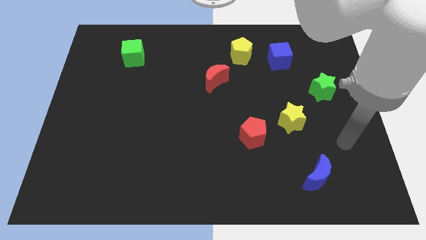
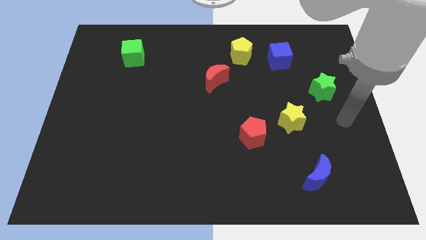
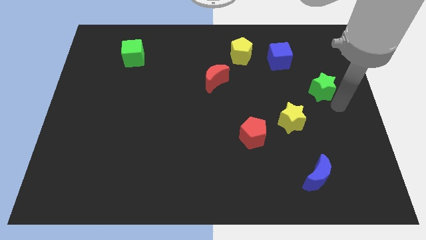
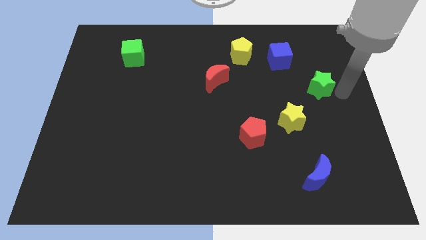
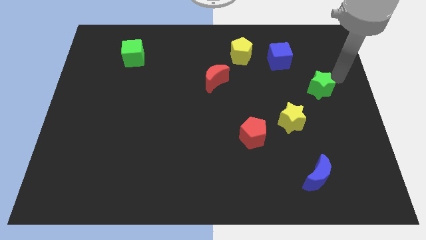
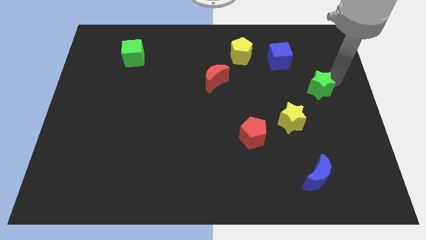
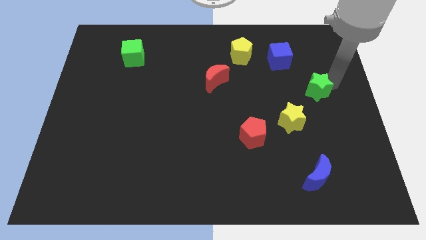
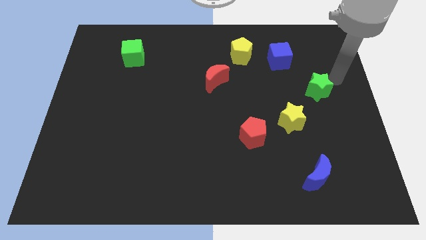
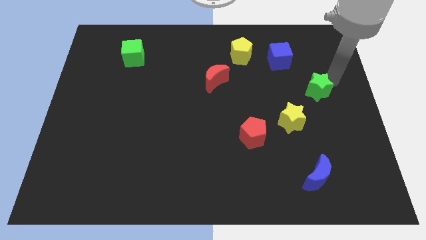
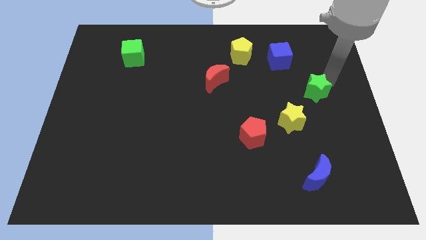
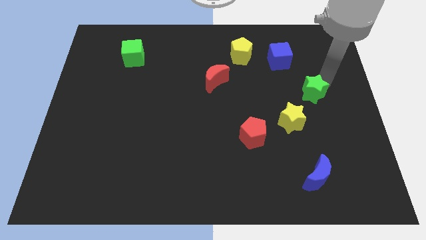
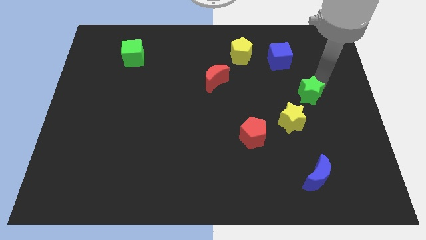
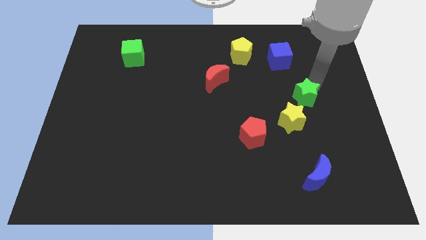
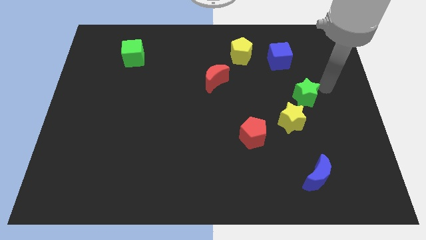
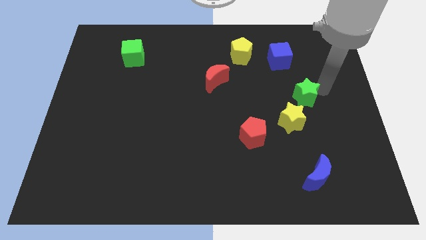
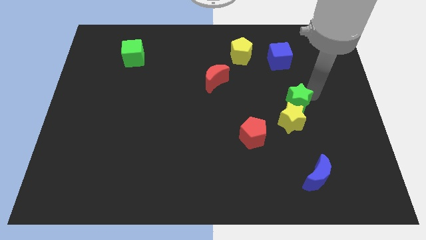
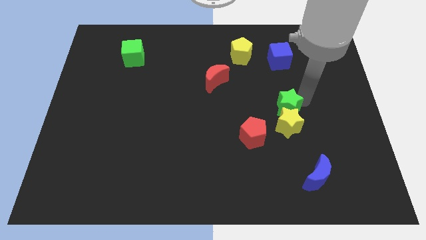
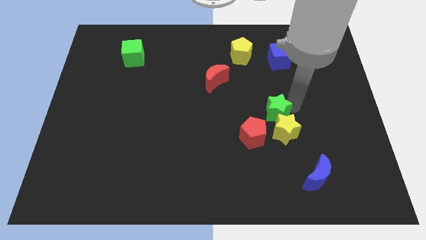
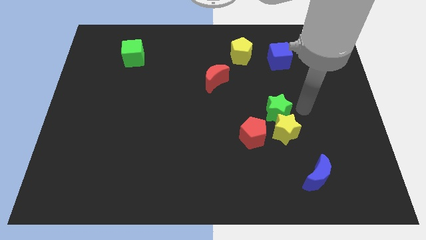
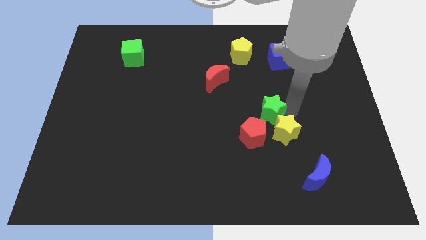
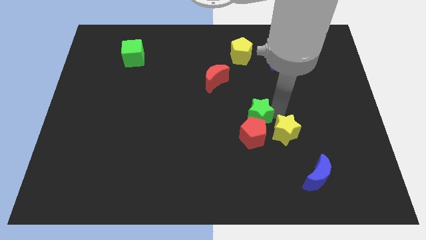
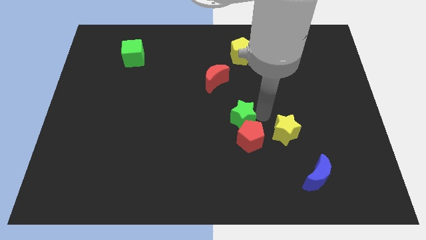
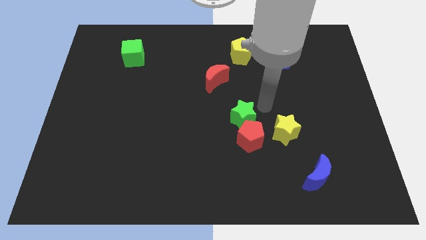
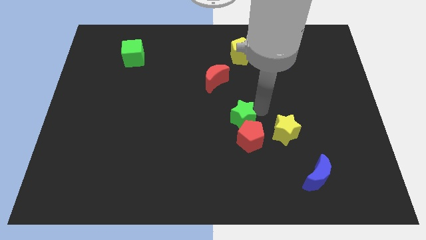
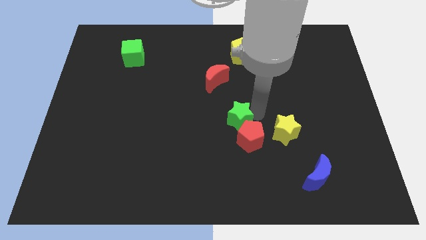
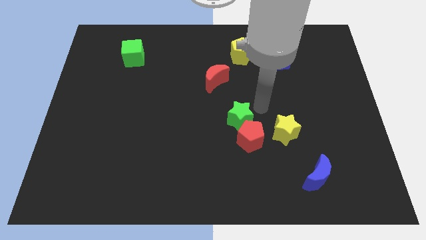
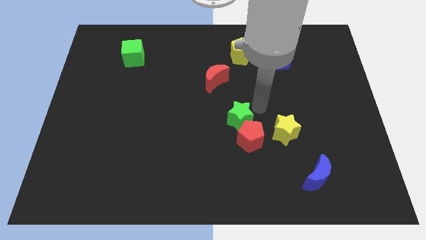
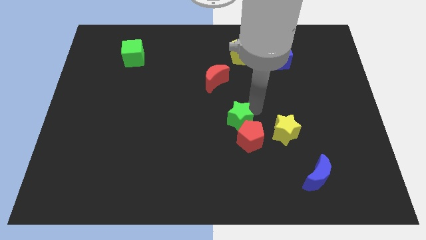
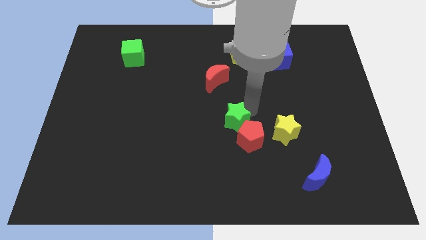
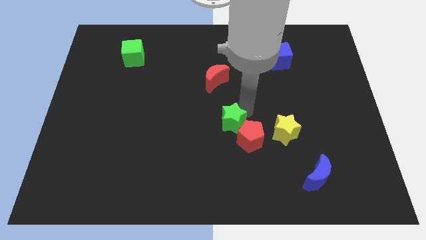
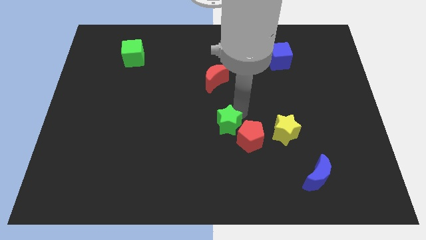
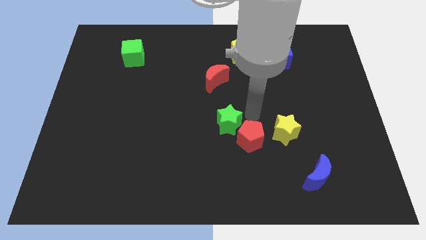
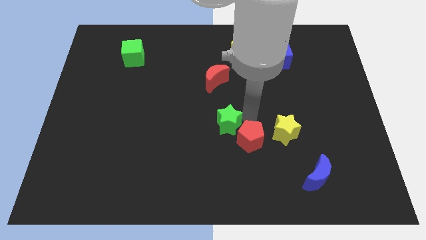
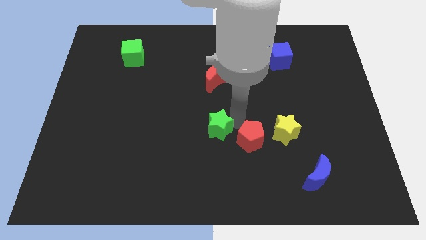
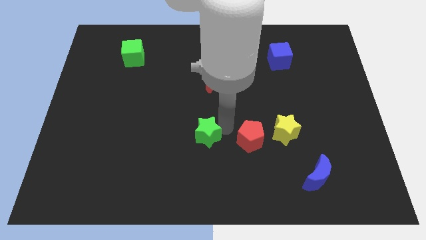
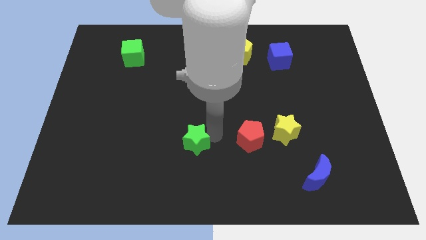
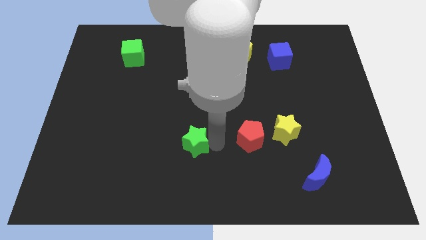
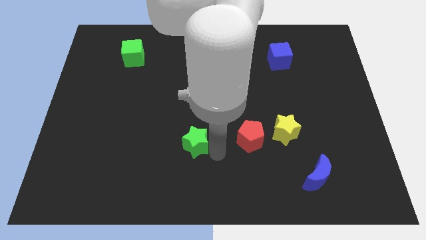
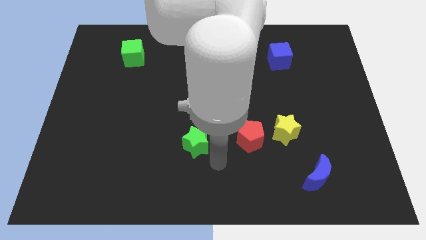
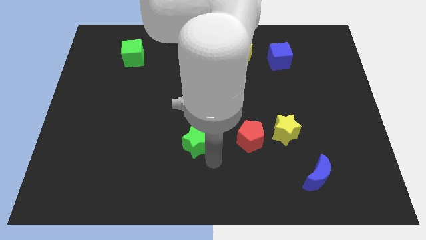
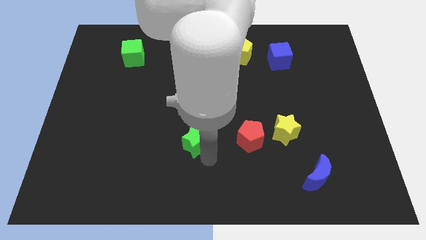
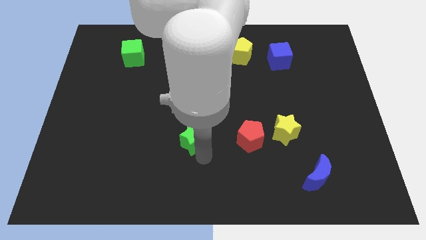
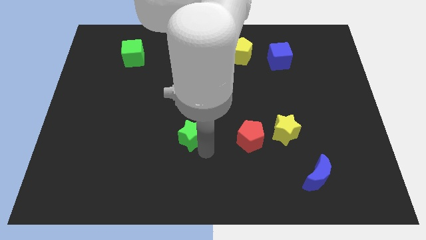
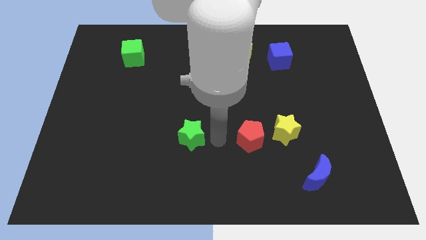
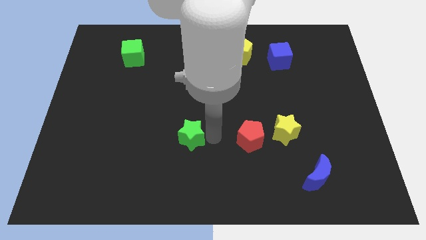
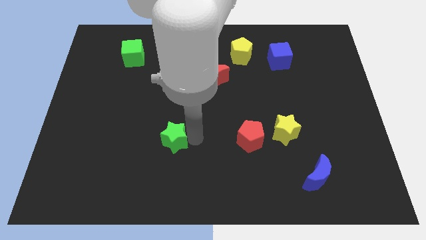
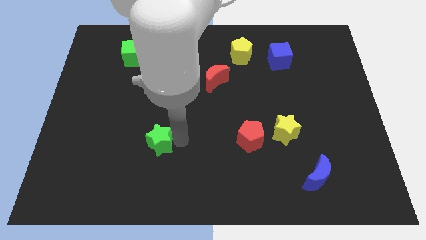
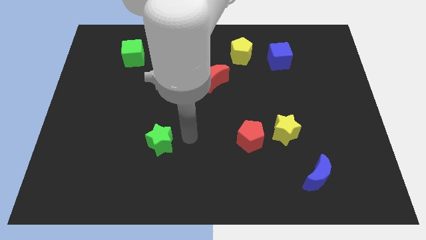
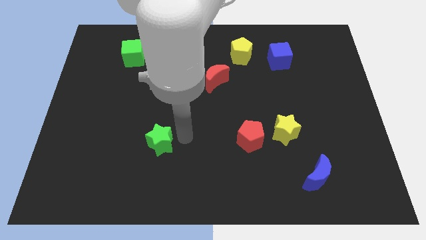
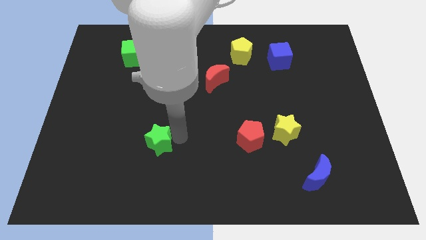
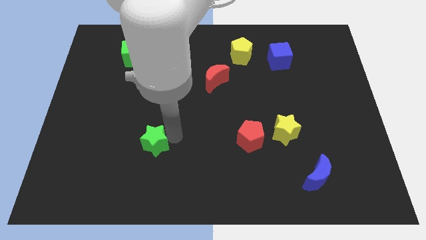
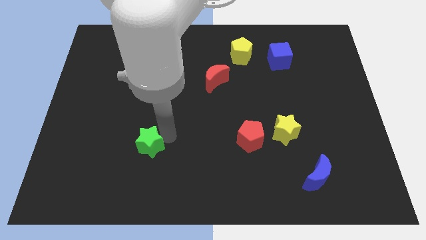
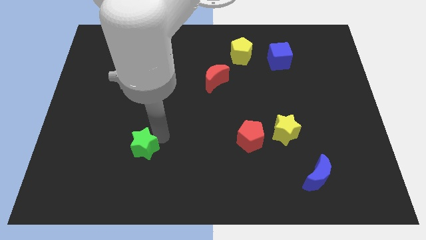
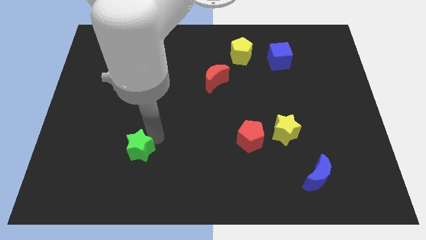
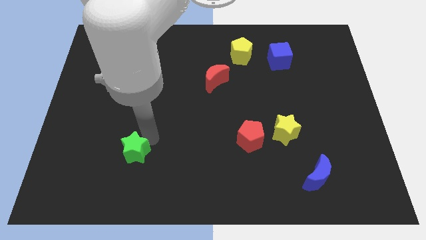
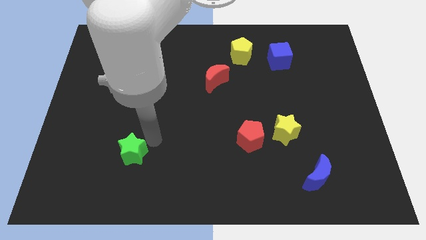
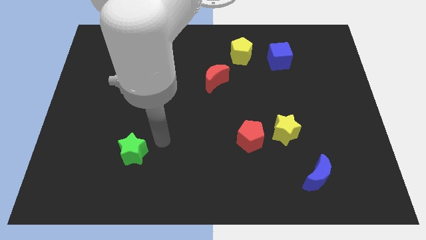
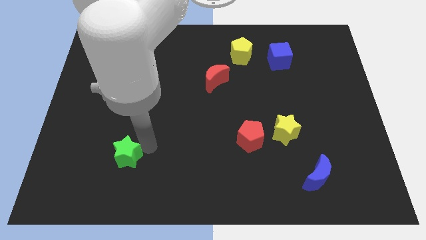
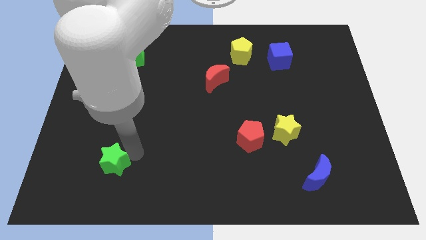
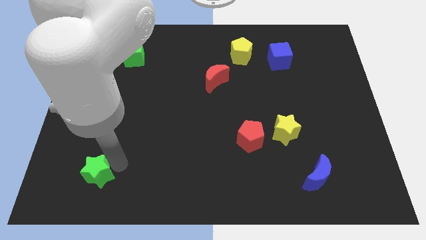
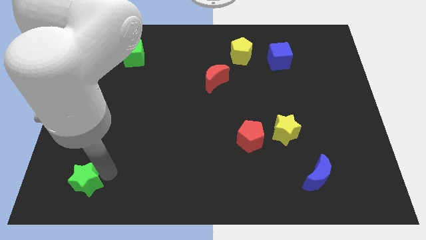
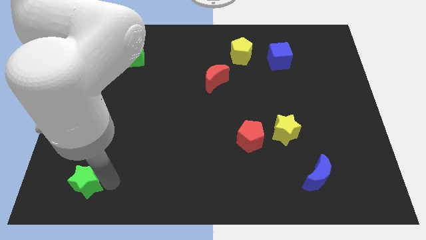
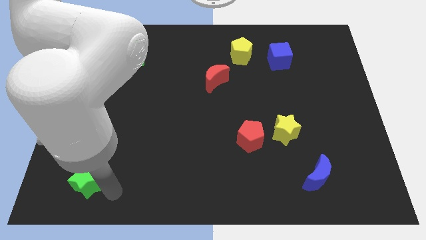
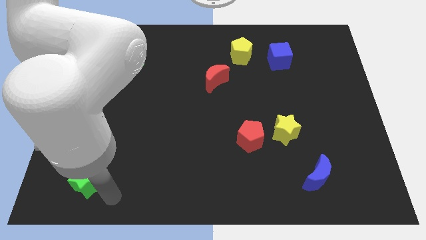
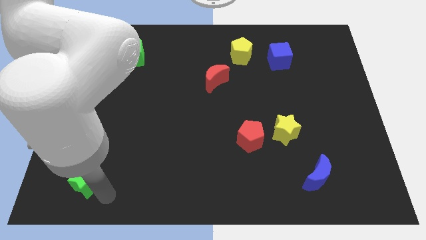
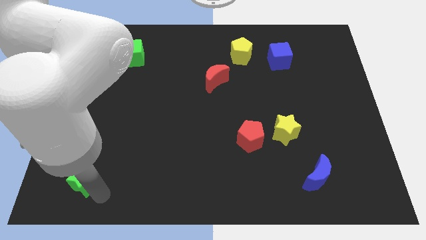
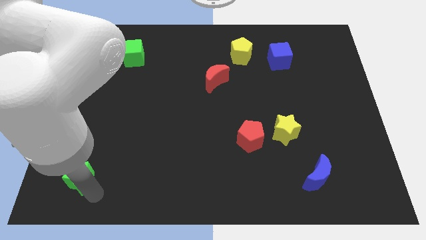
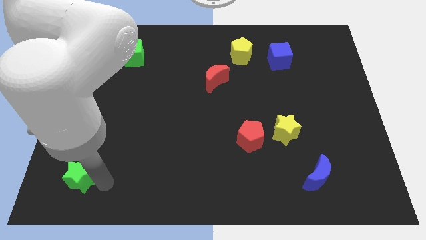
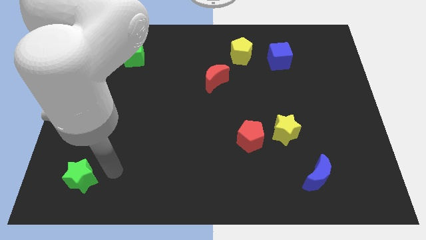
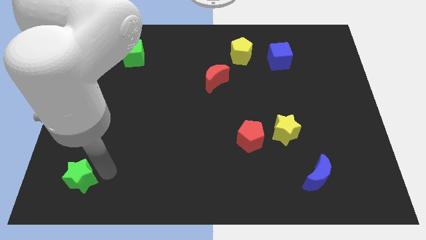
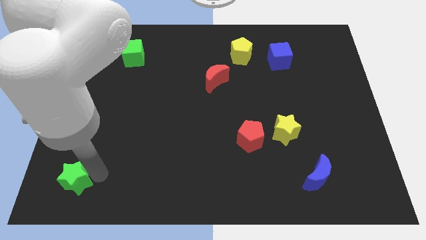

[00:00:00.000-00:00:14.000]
push the green star to the bottom left corner
